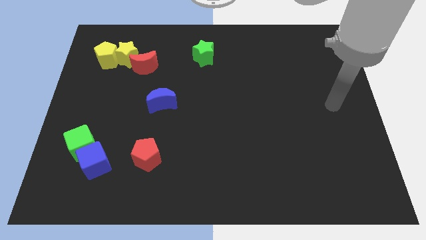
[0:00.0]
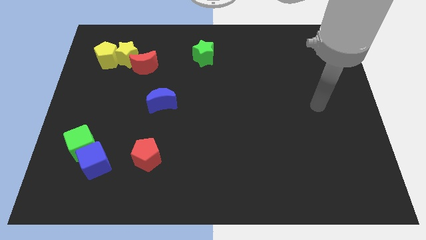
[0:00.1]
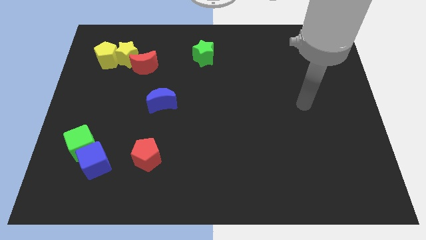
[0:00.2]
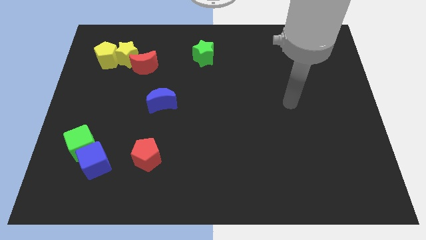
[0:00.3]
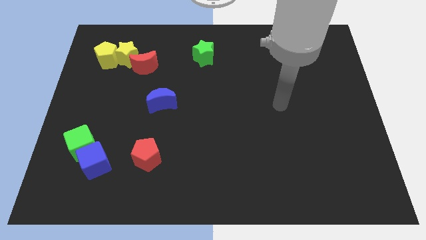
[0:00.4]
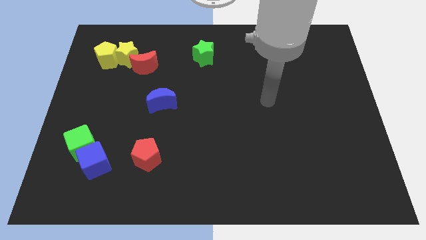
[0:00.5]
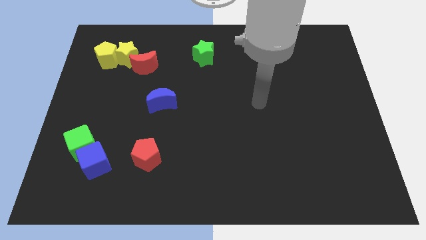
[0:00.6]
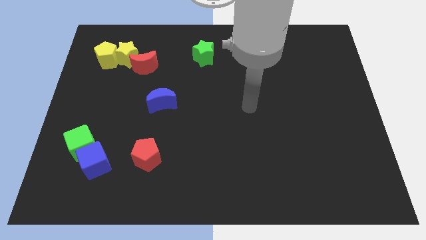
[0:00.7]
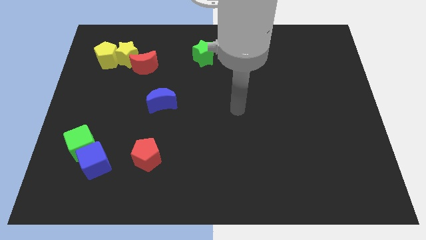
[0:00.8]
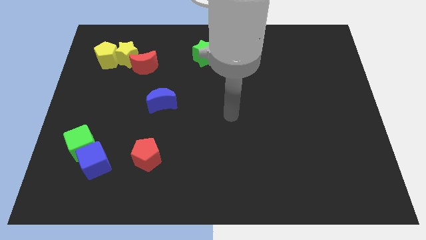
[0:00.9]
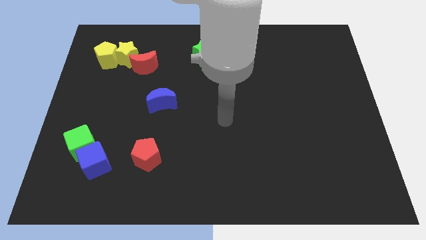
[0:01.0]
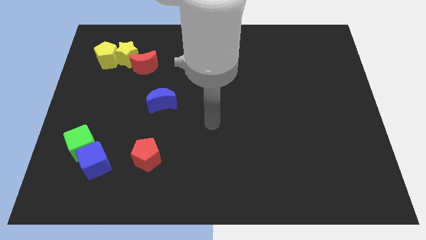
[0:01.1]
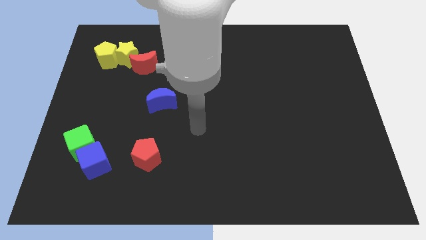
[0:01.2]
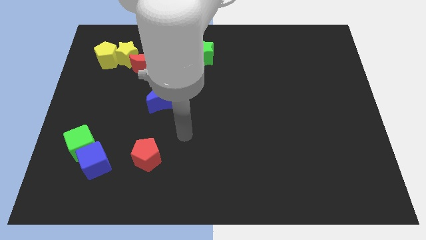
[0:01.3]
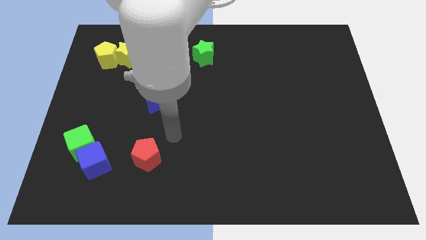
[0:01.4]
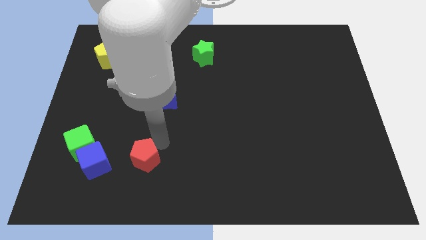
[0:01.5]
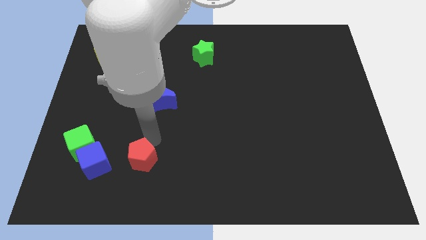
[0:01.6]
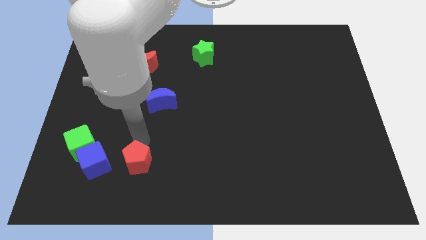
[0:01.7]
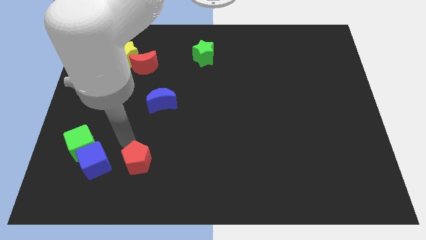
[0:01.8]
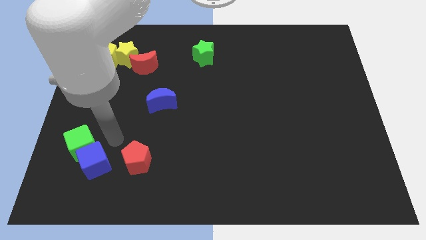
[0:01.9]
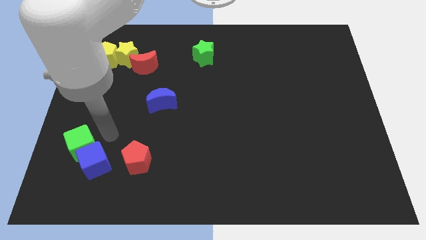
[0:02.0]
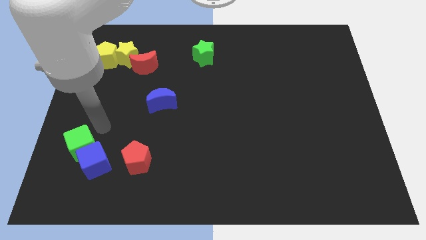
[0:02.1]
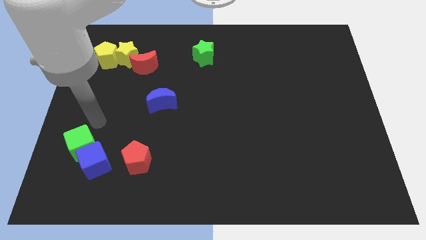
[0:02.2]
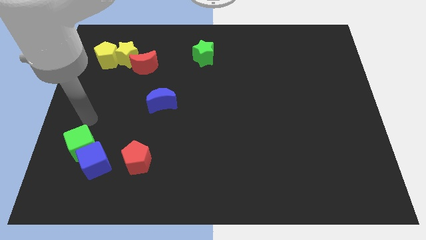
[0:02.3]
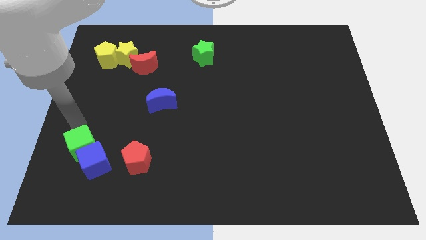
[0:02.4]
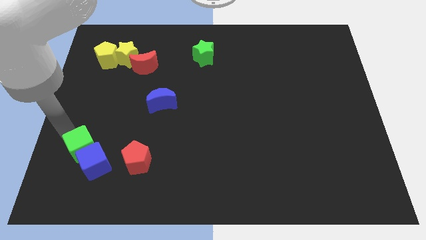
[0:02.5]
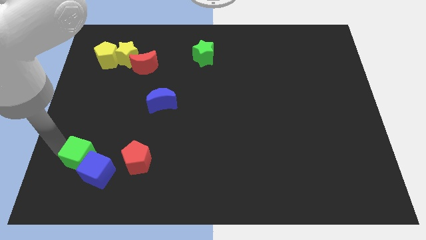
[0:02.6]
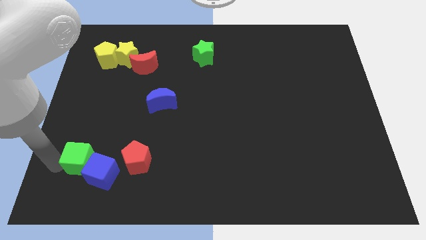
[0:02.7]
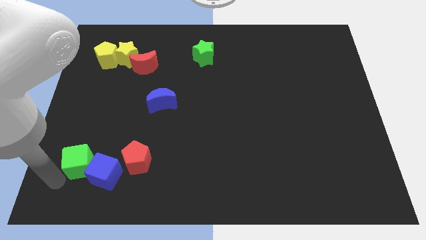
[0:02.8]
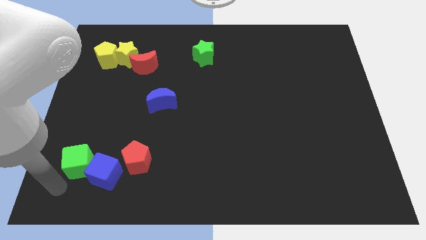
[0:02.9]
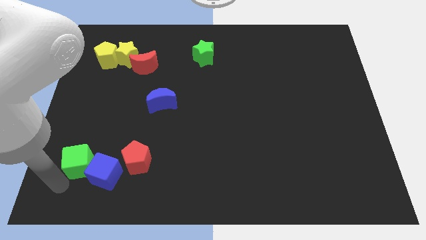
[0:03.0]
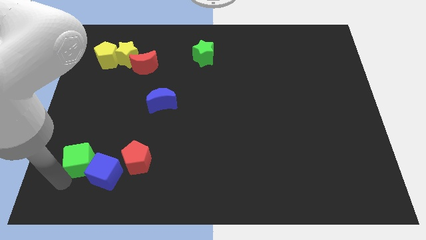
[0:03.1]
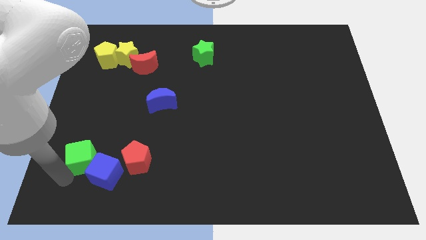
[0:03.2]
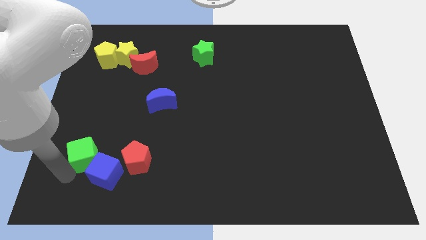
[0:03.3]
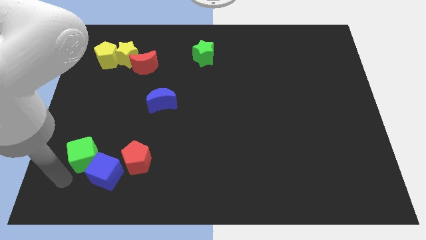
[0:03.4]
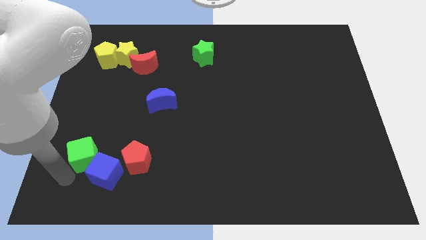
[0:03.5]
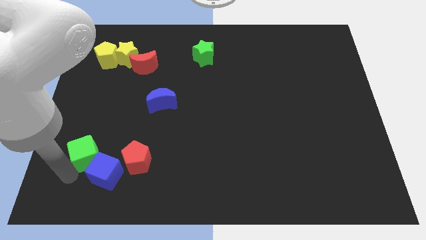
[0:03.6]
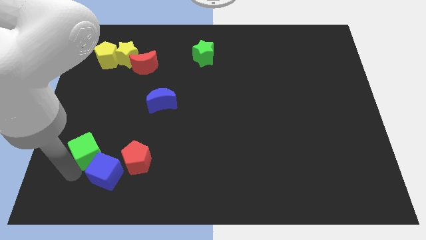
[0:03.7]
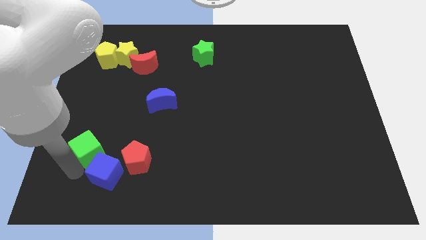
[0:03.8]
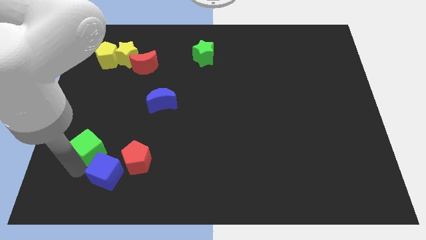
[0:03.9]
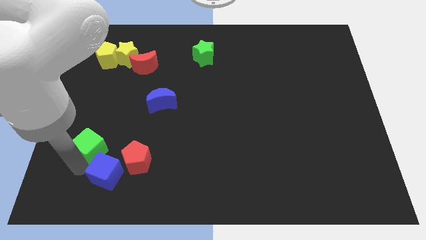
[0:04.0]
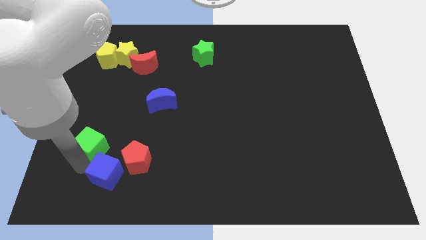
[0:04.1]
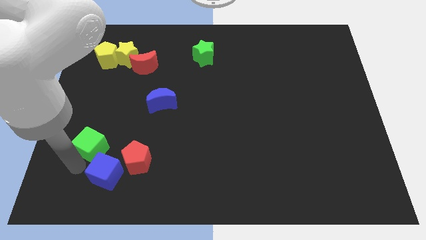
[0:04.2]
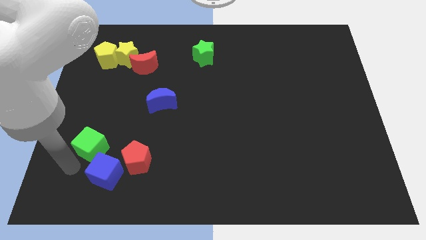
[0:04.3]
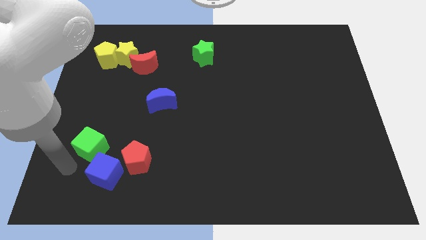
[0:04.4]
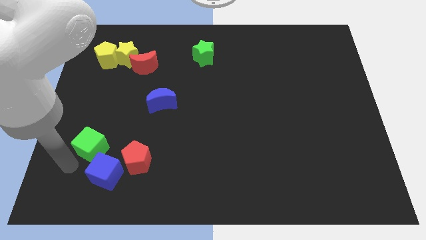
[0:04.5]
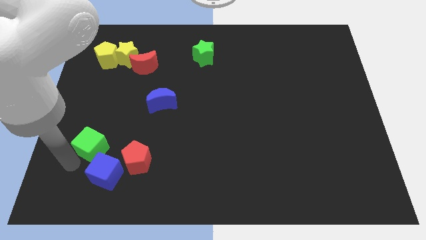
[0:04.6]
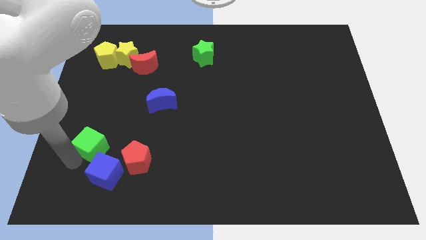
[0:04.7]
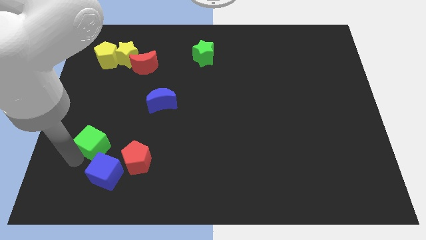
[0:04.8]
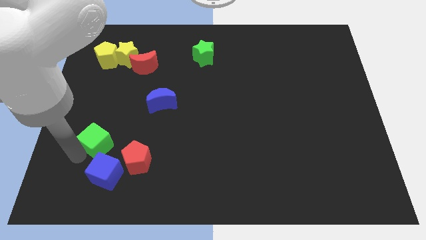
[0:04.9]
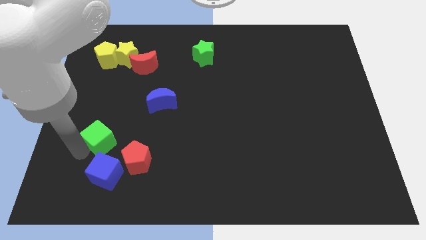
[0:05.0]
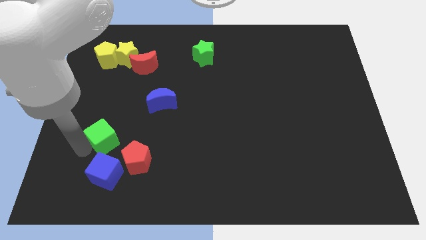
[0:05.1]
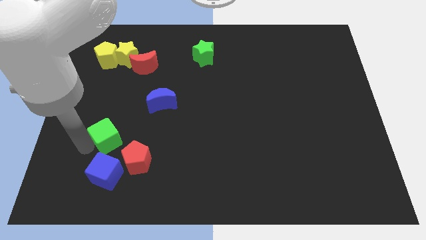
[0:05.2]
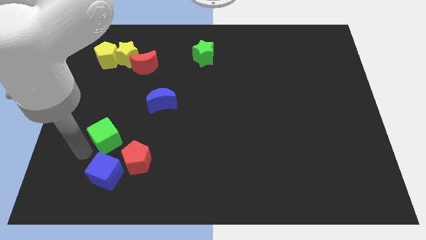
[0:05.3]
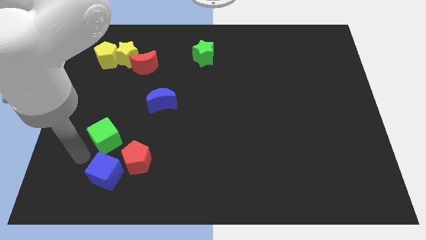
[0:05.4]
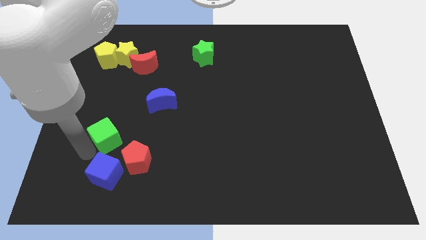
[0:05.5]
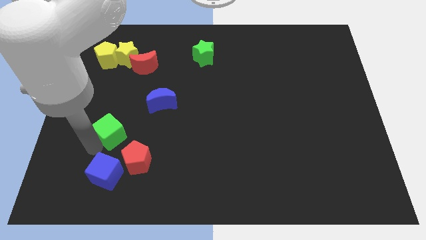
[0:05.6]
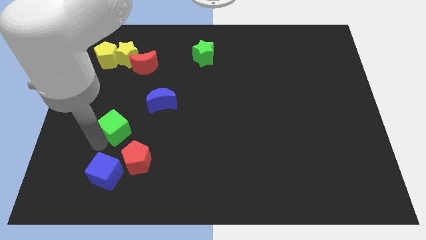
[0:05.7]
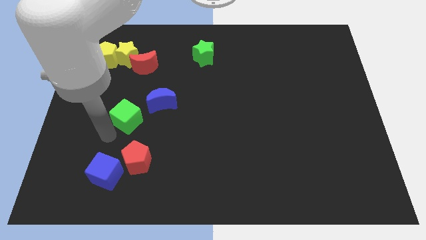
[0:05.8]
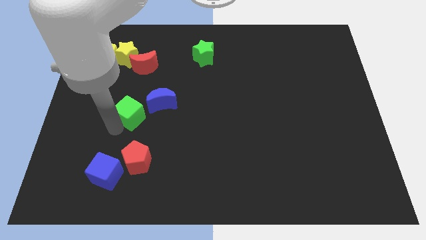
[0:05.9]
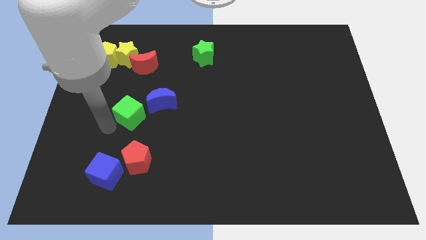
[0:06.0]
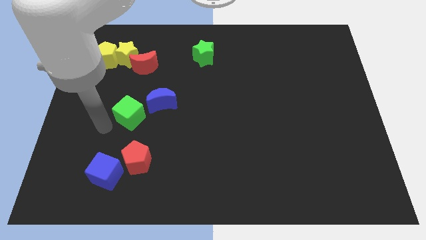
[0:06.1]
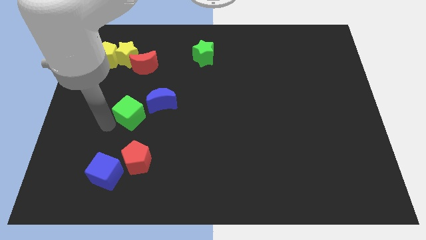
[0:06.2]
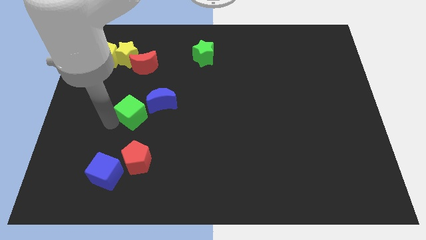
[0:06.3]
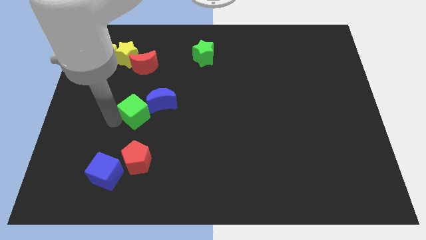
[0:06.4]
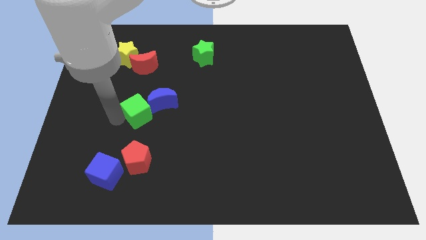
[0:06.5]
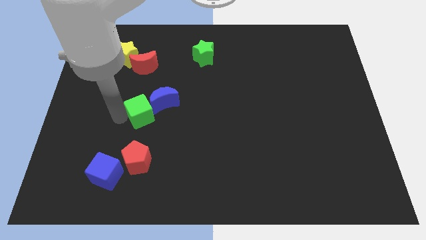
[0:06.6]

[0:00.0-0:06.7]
move the green cube to the blue moon

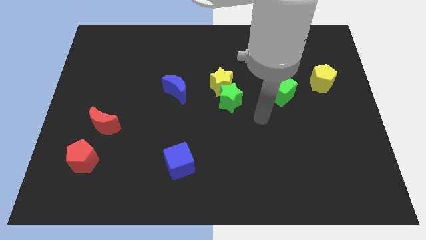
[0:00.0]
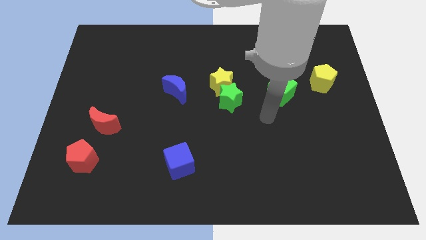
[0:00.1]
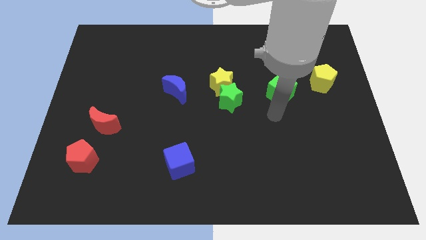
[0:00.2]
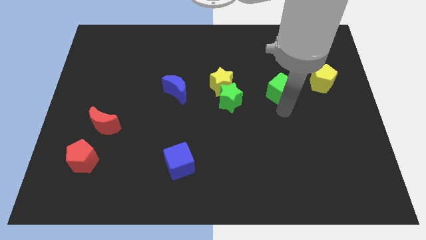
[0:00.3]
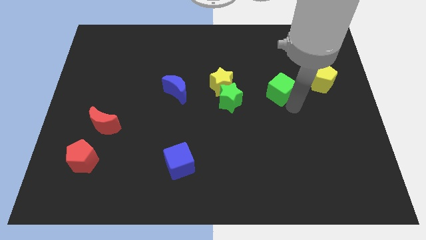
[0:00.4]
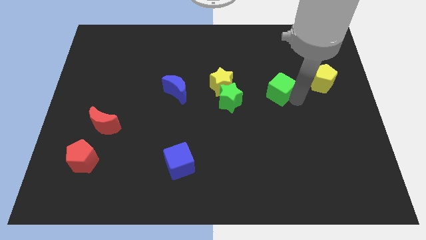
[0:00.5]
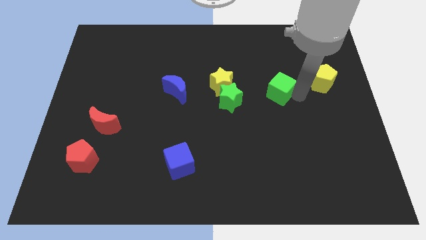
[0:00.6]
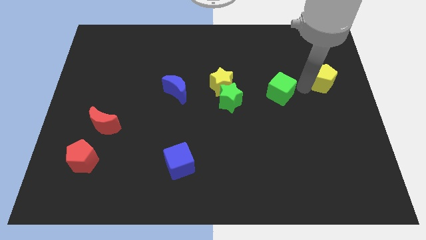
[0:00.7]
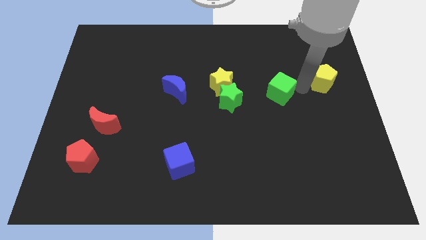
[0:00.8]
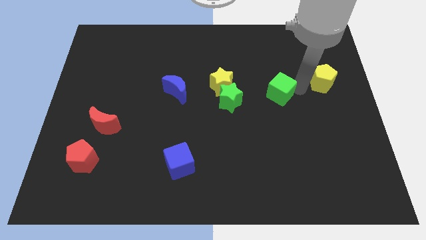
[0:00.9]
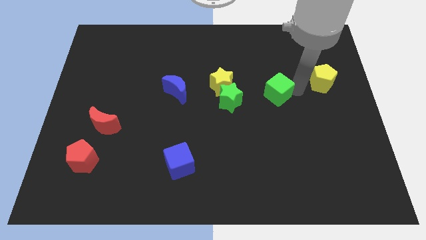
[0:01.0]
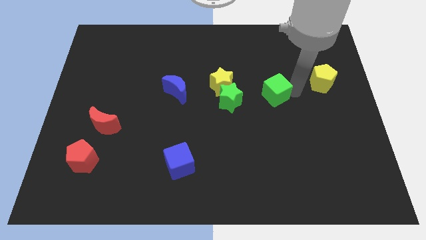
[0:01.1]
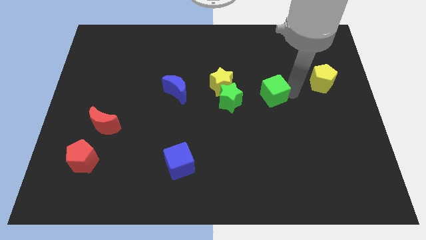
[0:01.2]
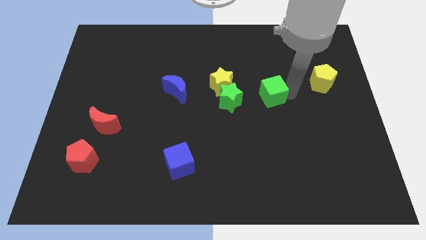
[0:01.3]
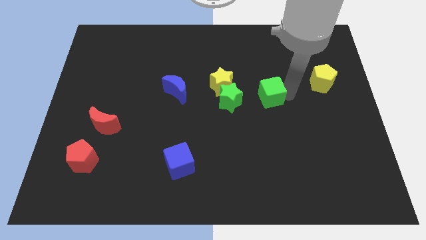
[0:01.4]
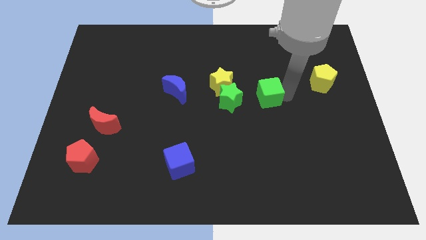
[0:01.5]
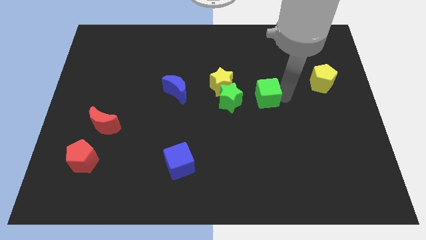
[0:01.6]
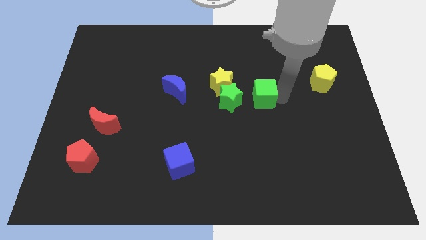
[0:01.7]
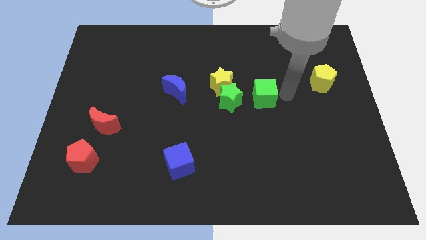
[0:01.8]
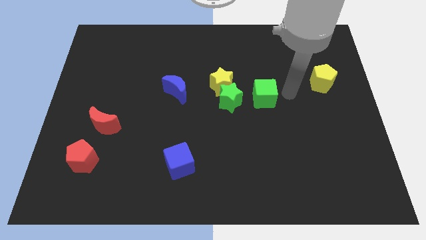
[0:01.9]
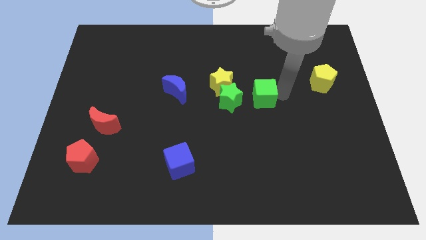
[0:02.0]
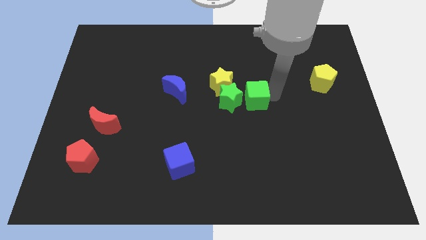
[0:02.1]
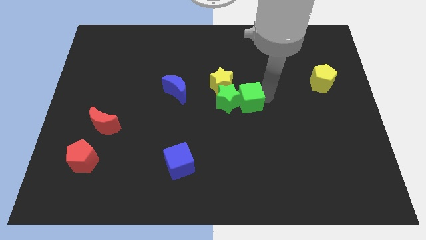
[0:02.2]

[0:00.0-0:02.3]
put the green cube close to the green star
